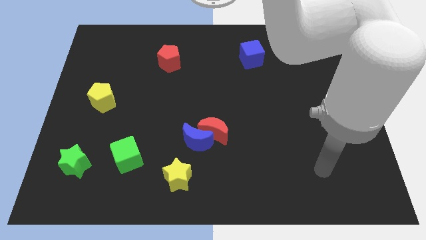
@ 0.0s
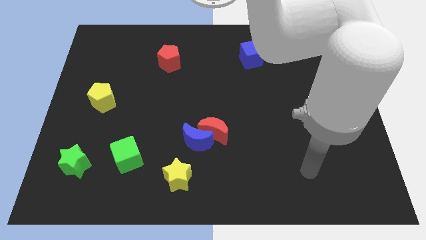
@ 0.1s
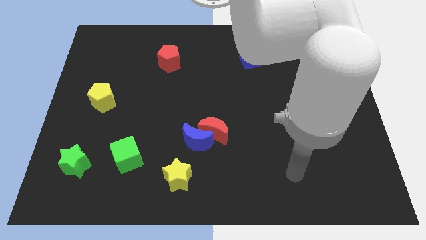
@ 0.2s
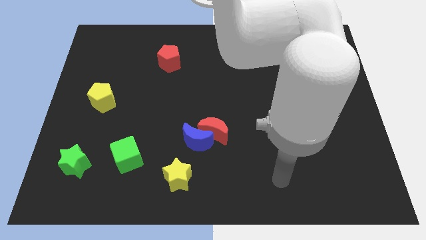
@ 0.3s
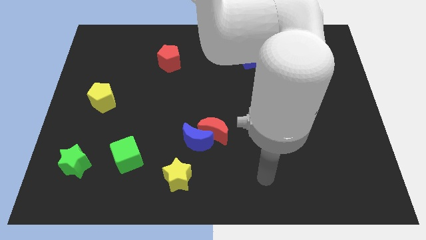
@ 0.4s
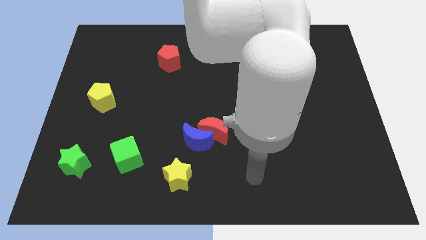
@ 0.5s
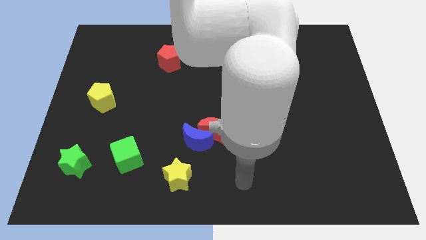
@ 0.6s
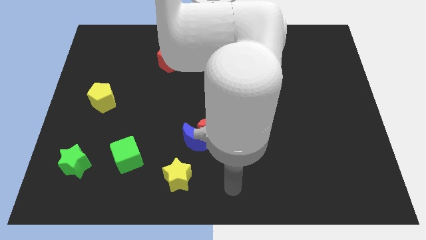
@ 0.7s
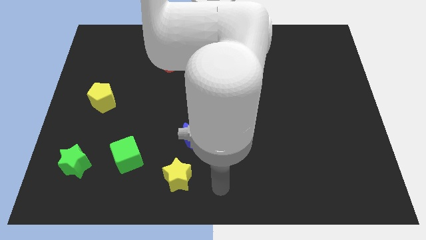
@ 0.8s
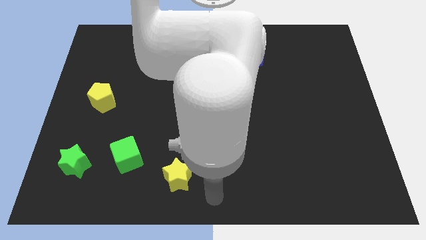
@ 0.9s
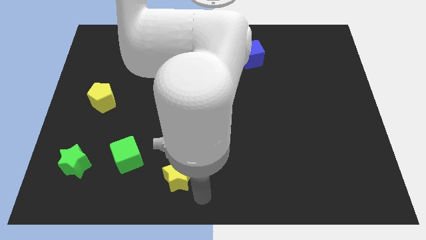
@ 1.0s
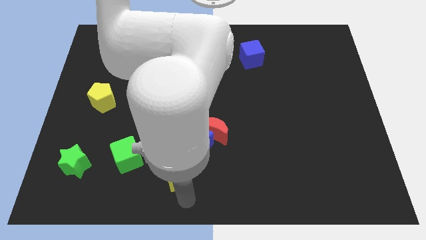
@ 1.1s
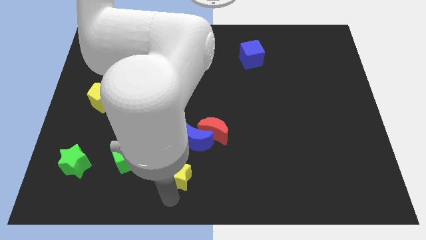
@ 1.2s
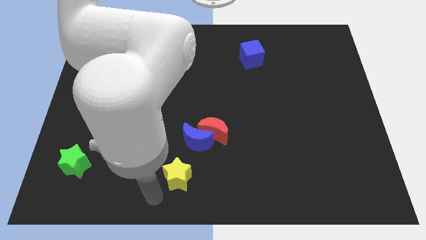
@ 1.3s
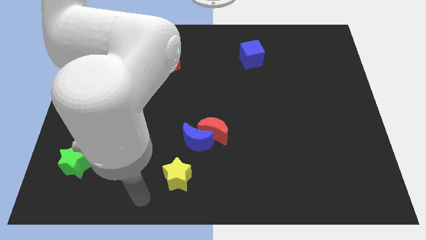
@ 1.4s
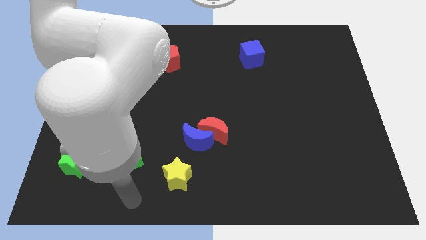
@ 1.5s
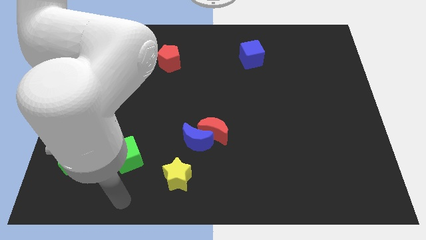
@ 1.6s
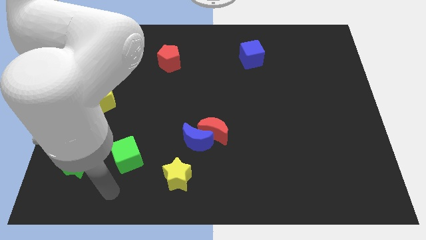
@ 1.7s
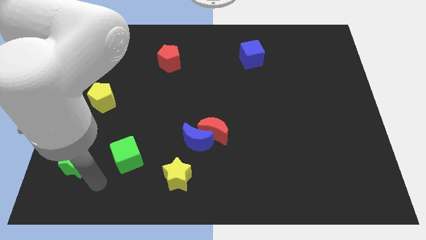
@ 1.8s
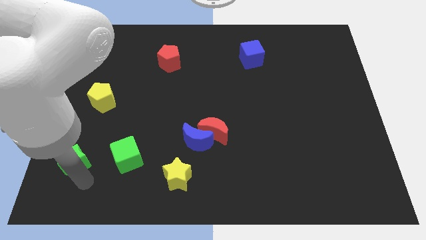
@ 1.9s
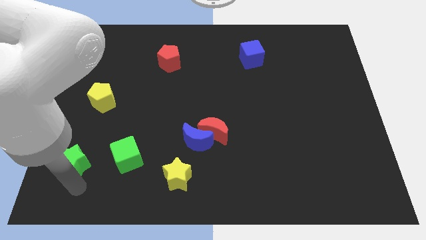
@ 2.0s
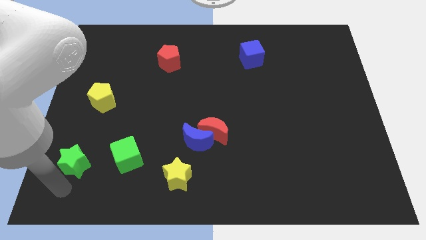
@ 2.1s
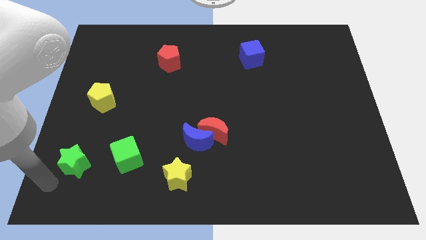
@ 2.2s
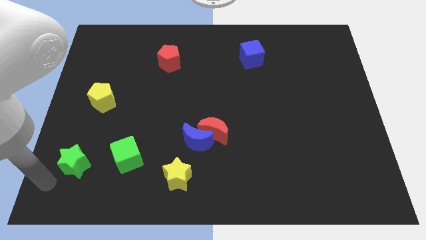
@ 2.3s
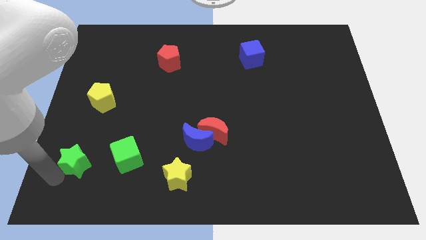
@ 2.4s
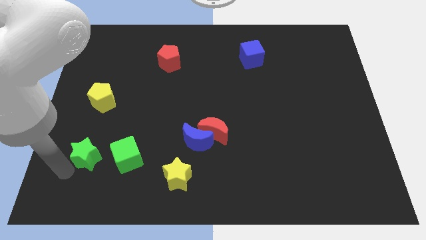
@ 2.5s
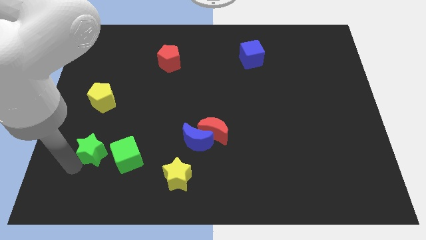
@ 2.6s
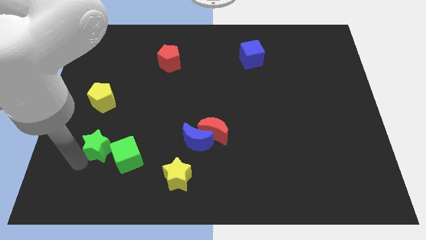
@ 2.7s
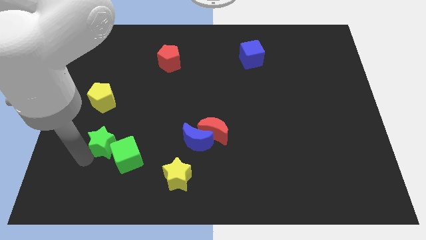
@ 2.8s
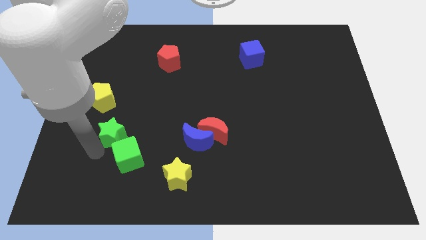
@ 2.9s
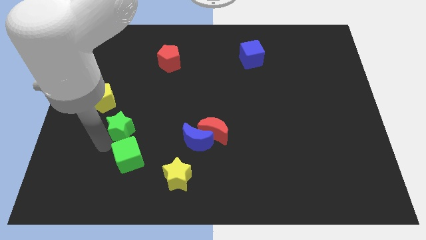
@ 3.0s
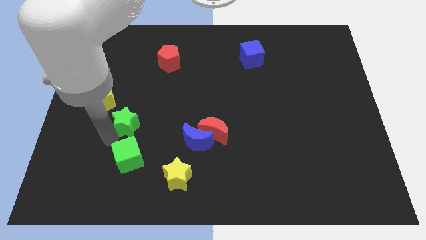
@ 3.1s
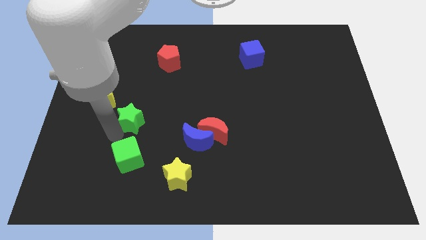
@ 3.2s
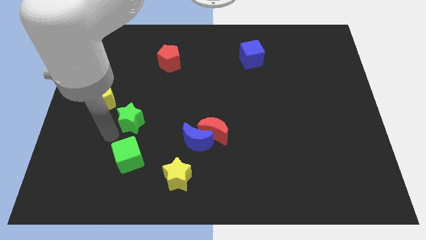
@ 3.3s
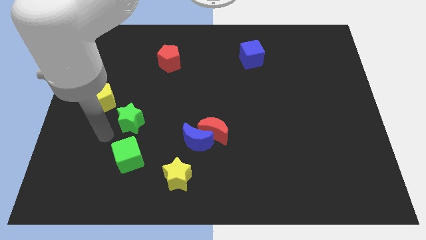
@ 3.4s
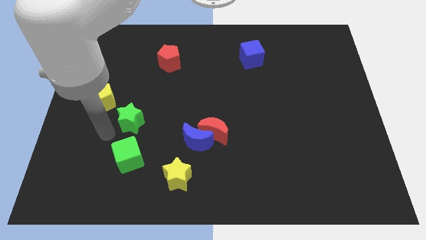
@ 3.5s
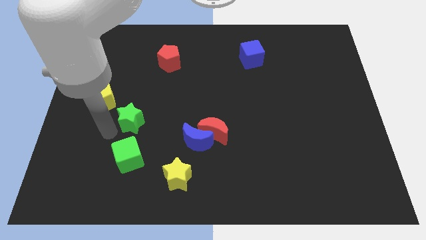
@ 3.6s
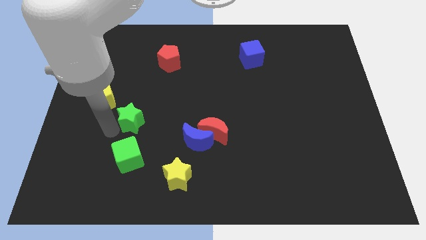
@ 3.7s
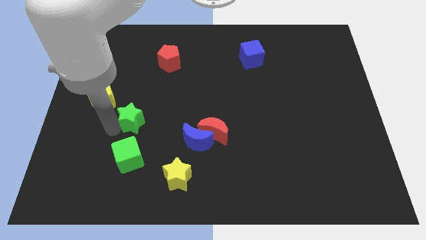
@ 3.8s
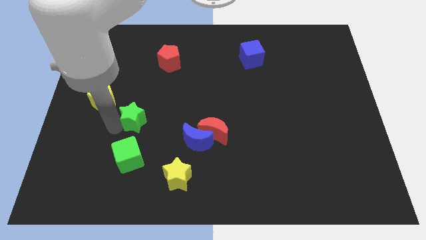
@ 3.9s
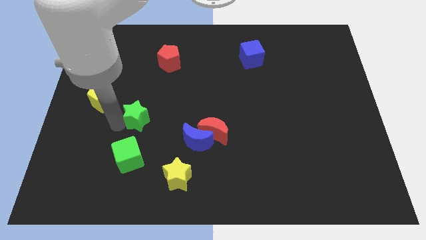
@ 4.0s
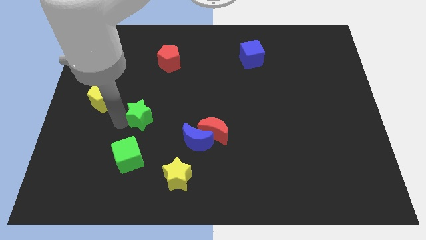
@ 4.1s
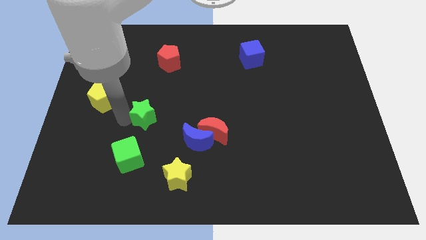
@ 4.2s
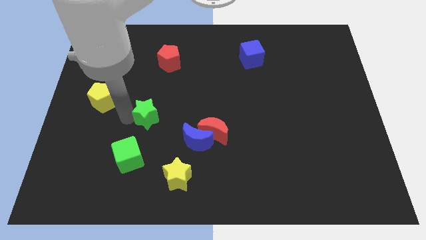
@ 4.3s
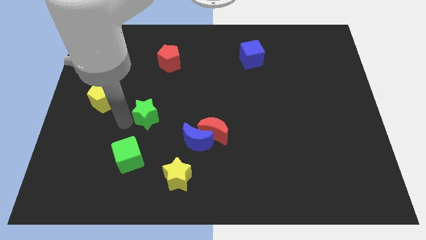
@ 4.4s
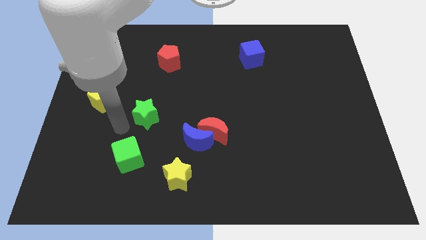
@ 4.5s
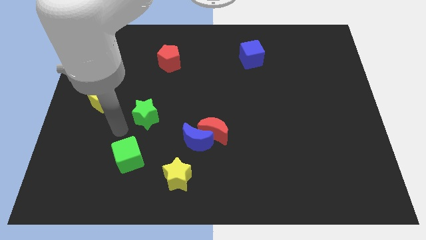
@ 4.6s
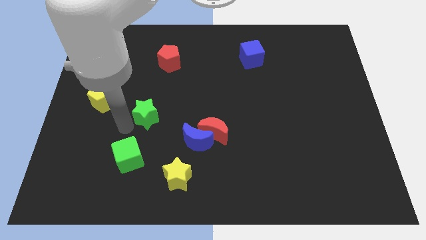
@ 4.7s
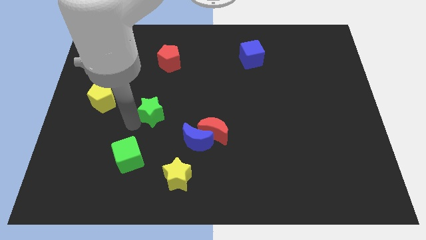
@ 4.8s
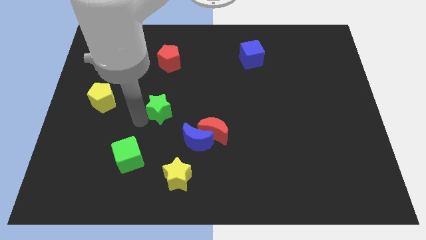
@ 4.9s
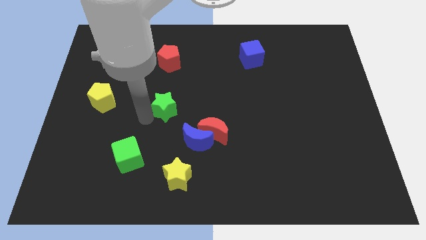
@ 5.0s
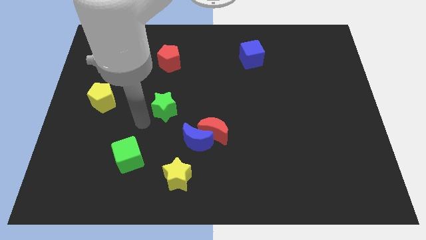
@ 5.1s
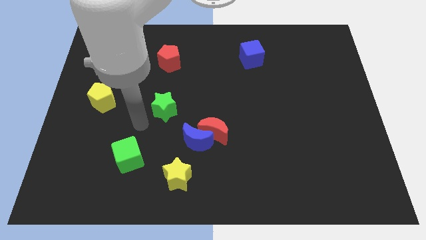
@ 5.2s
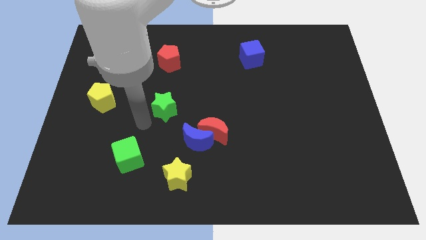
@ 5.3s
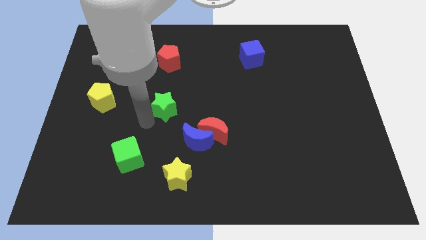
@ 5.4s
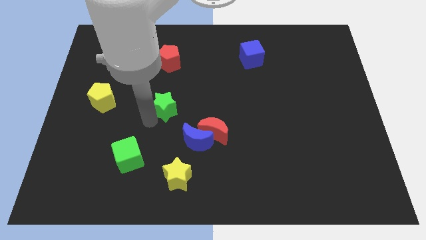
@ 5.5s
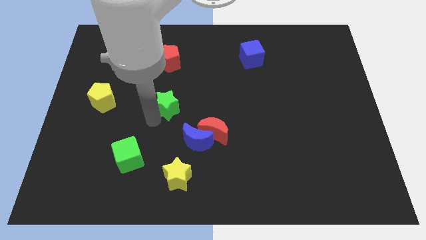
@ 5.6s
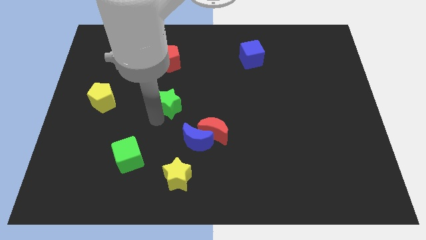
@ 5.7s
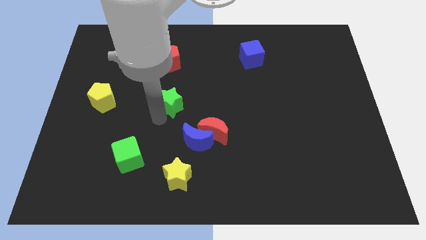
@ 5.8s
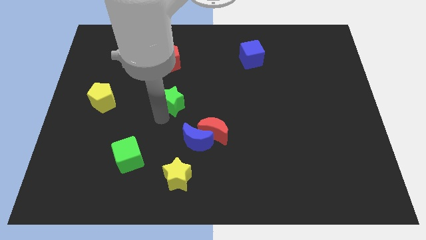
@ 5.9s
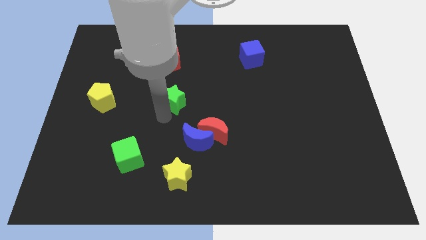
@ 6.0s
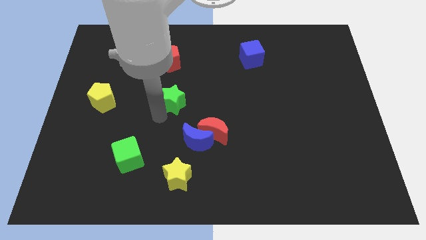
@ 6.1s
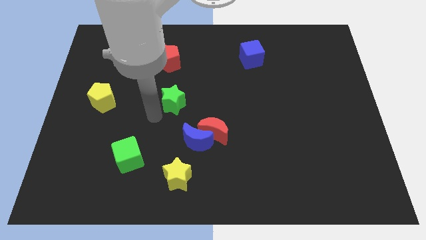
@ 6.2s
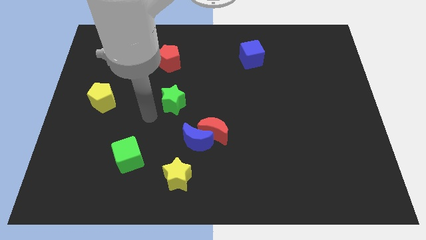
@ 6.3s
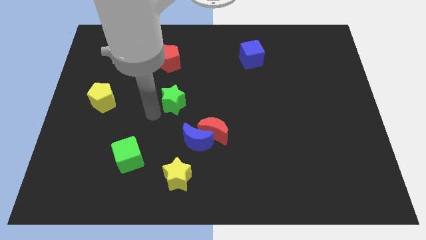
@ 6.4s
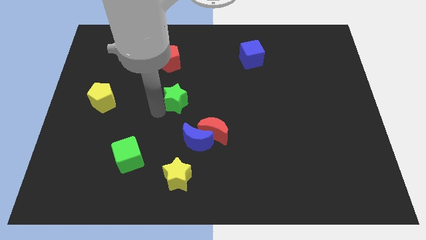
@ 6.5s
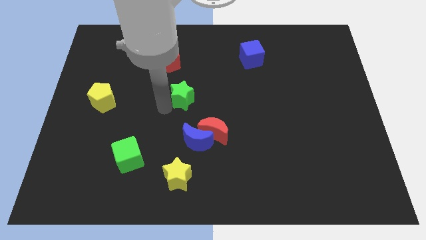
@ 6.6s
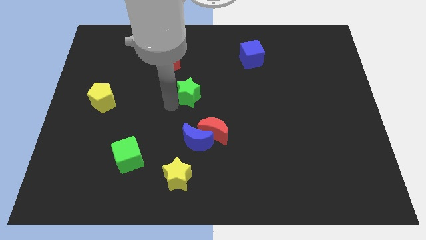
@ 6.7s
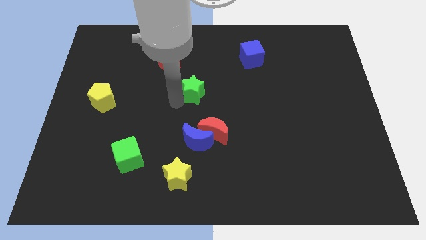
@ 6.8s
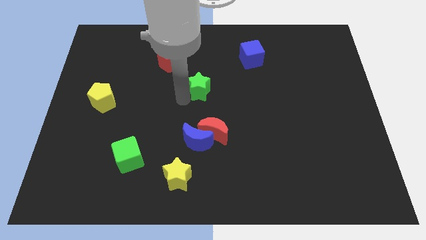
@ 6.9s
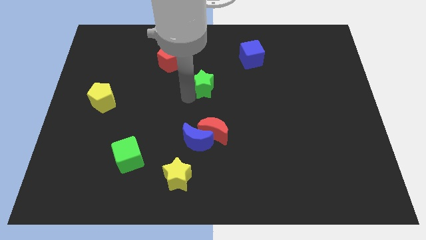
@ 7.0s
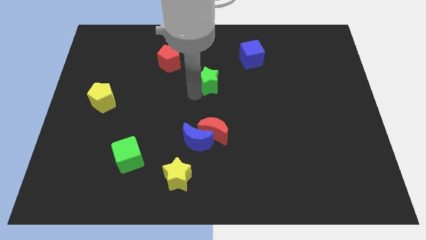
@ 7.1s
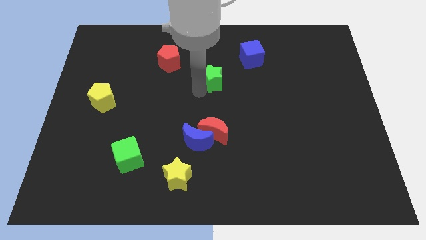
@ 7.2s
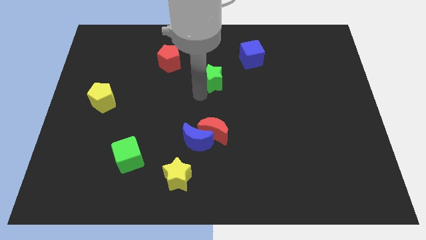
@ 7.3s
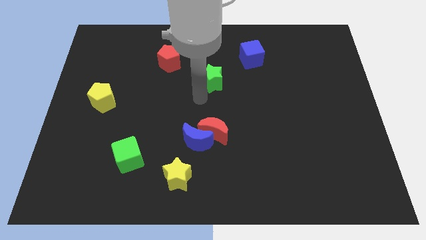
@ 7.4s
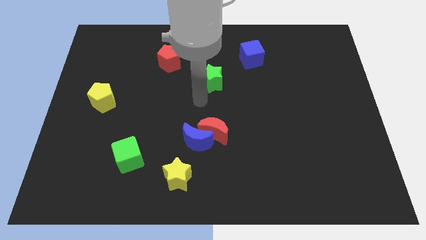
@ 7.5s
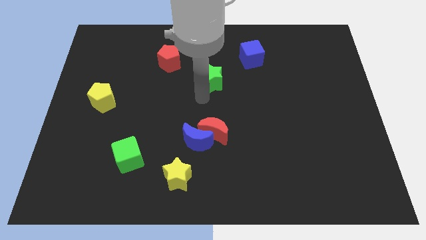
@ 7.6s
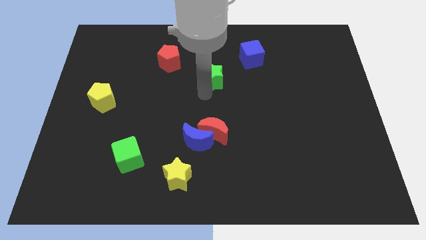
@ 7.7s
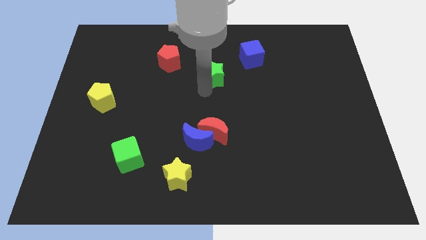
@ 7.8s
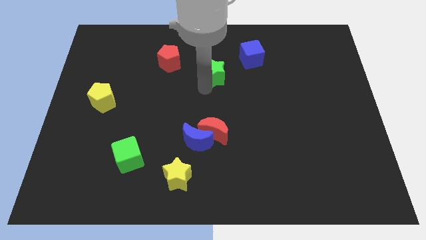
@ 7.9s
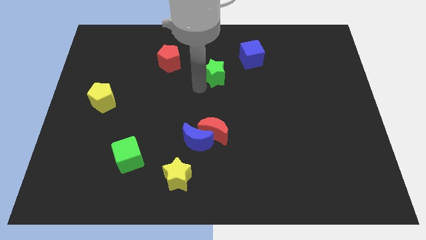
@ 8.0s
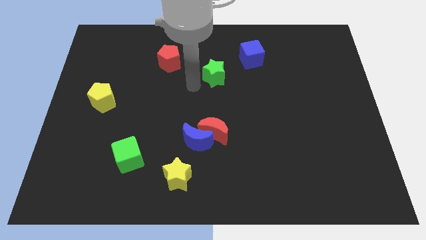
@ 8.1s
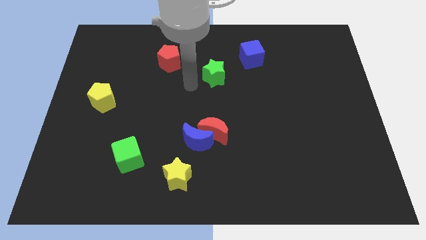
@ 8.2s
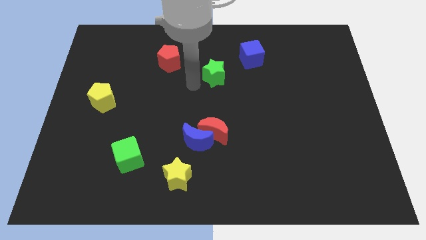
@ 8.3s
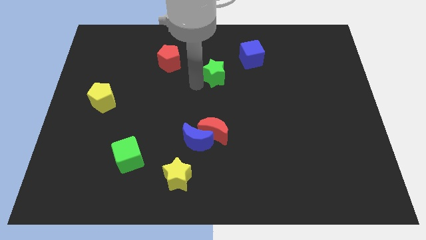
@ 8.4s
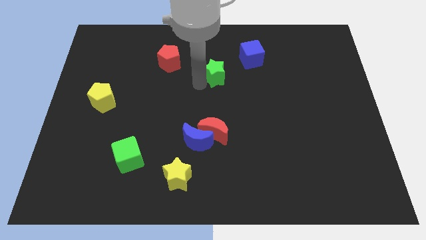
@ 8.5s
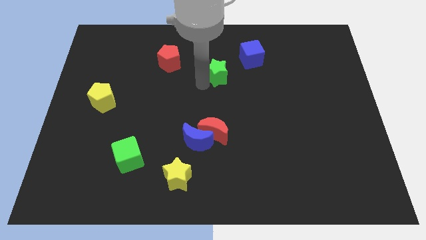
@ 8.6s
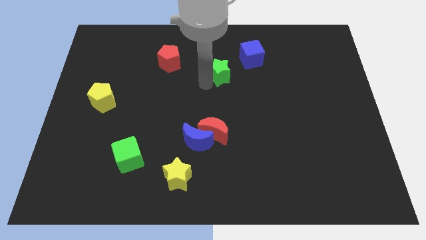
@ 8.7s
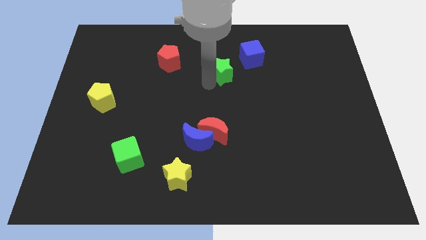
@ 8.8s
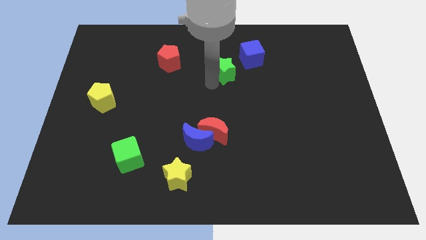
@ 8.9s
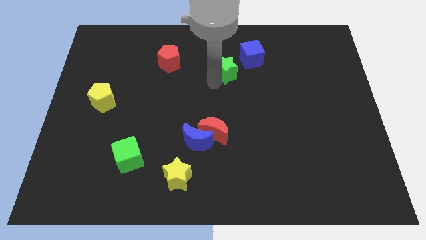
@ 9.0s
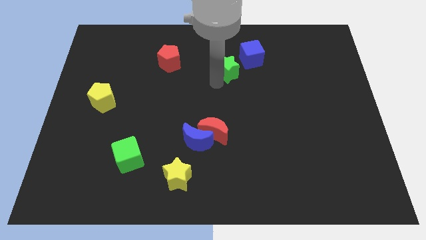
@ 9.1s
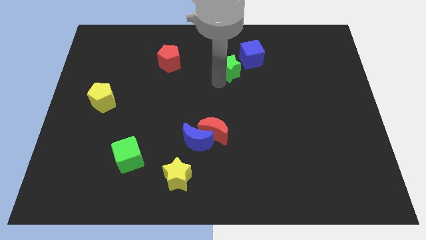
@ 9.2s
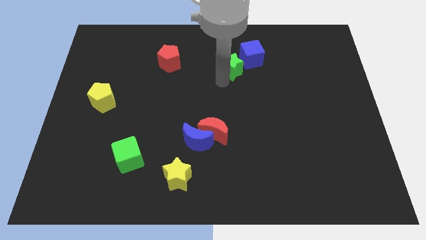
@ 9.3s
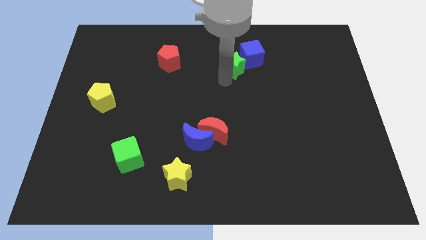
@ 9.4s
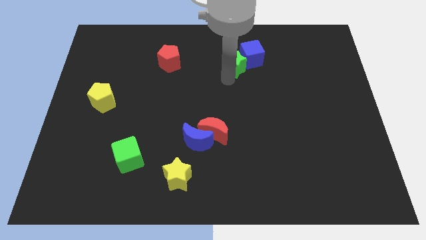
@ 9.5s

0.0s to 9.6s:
move the green star close to the blue cube
